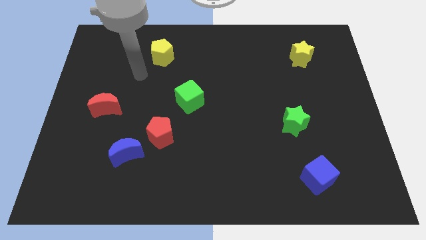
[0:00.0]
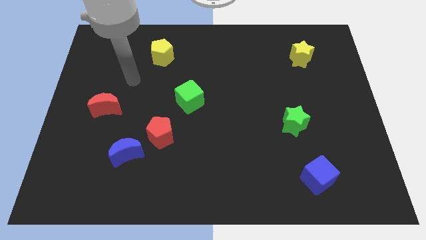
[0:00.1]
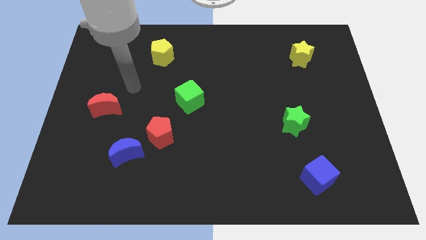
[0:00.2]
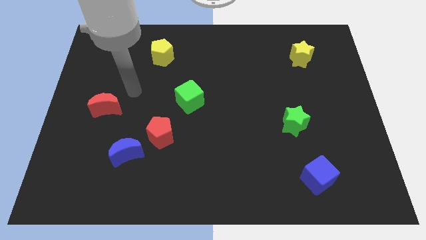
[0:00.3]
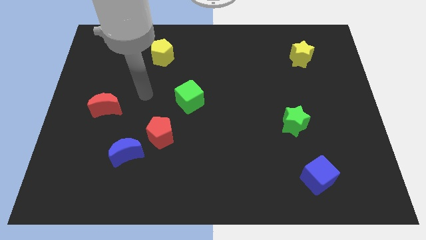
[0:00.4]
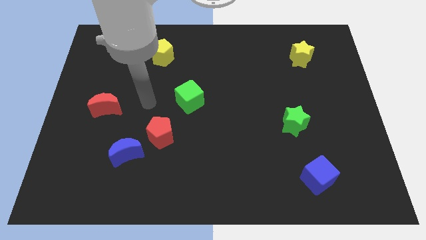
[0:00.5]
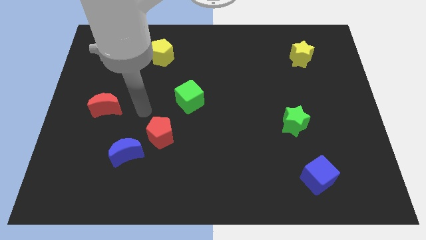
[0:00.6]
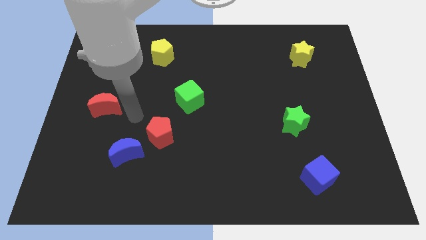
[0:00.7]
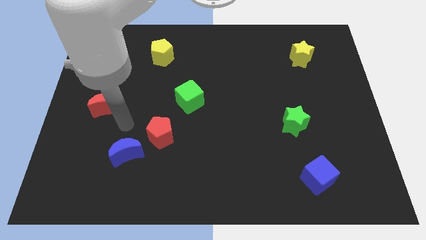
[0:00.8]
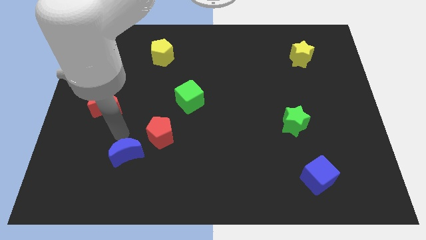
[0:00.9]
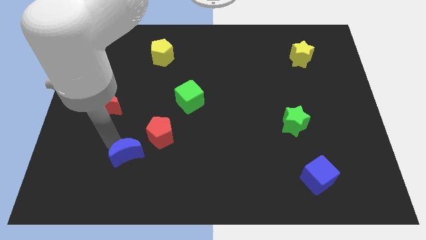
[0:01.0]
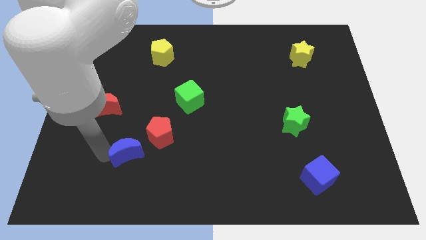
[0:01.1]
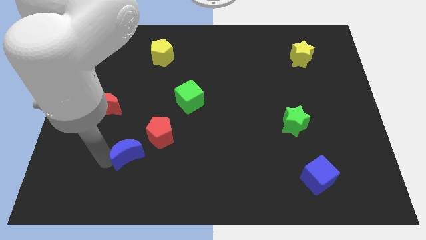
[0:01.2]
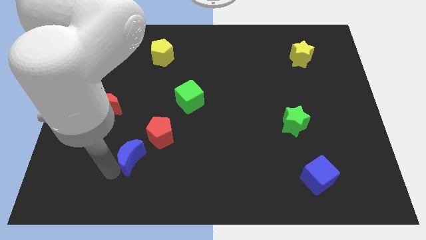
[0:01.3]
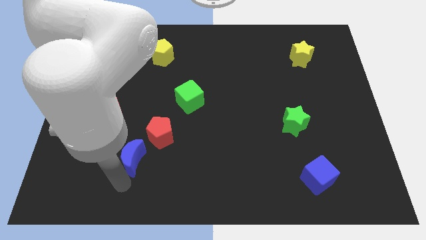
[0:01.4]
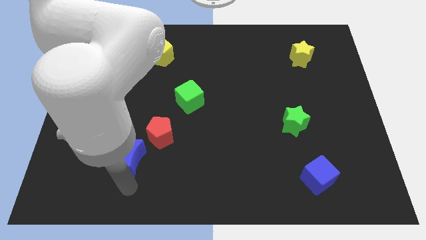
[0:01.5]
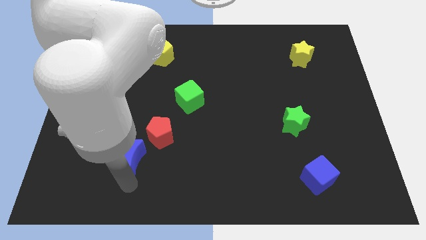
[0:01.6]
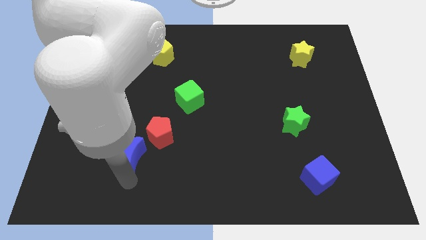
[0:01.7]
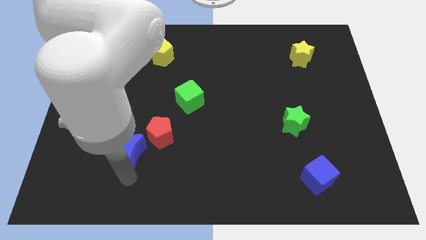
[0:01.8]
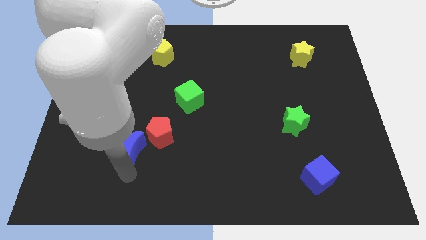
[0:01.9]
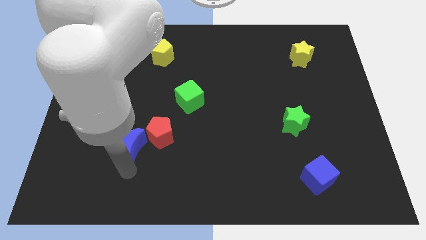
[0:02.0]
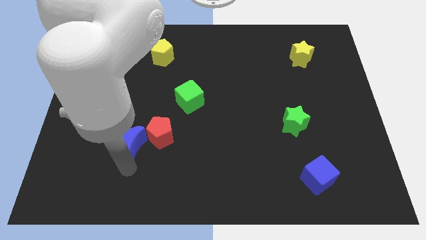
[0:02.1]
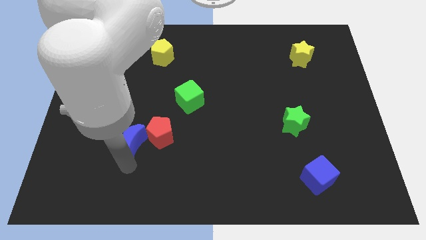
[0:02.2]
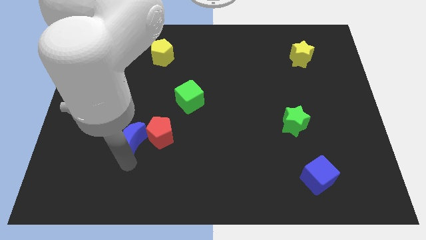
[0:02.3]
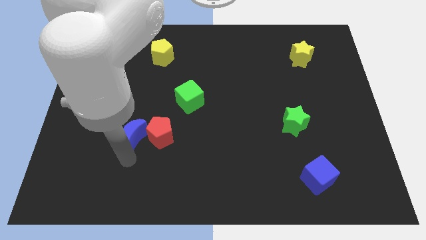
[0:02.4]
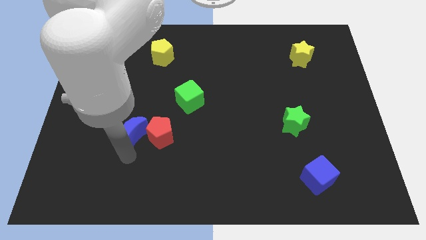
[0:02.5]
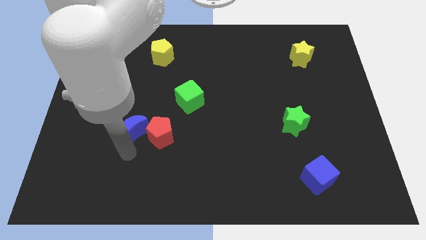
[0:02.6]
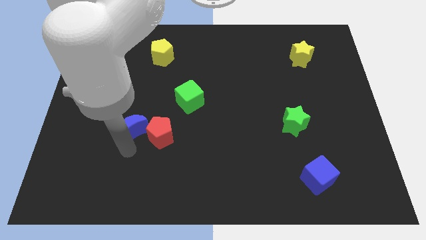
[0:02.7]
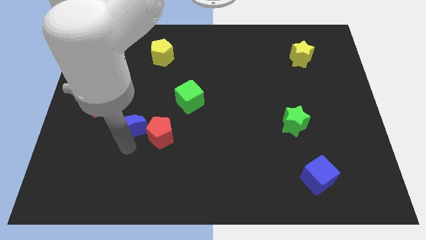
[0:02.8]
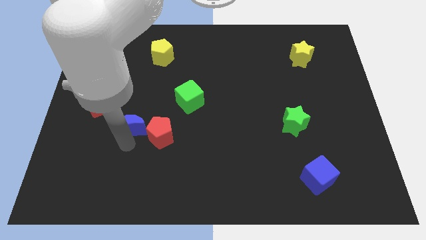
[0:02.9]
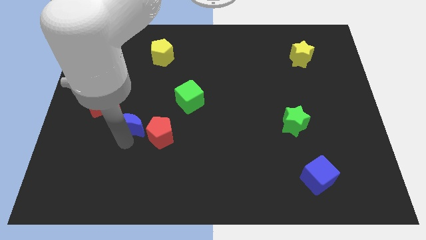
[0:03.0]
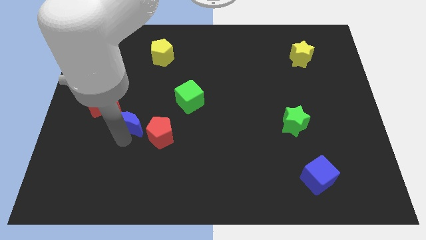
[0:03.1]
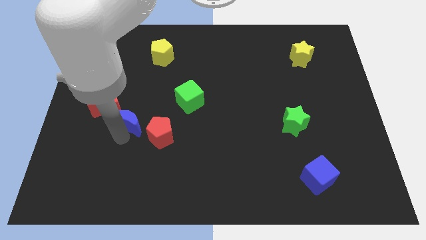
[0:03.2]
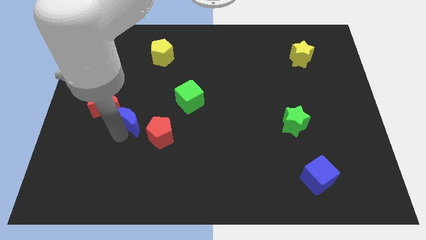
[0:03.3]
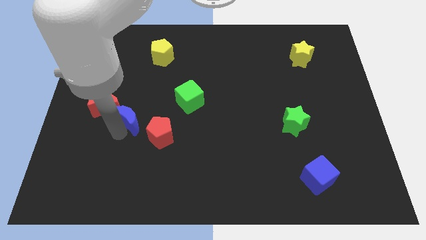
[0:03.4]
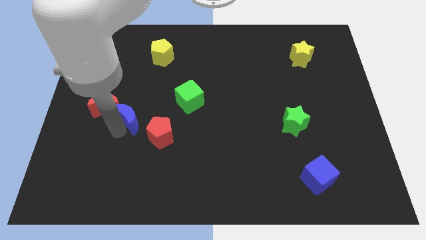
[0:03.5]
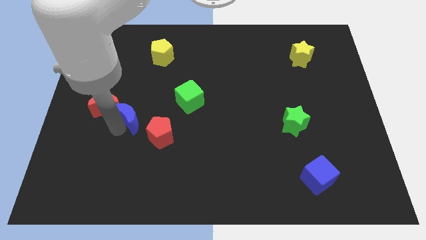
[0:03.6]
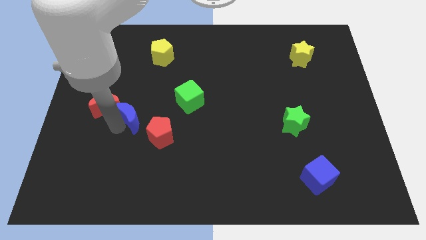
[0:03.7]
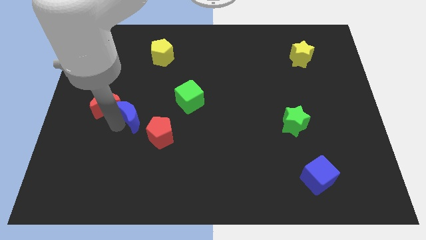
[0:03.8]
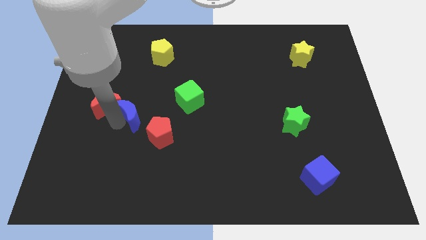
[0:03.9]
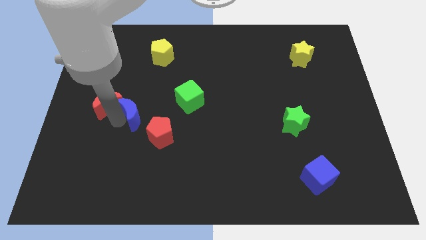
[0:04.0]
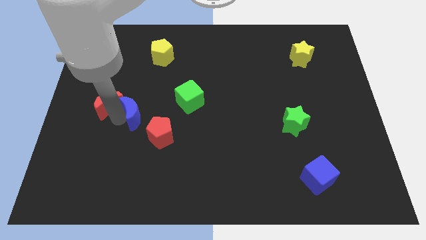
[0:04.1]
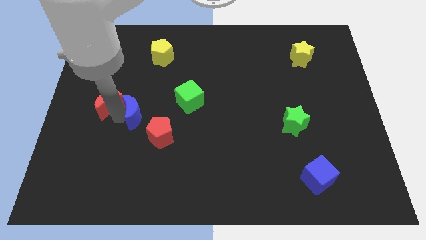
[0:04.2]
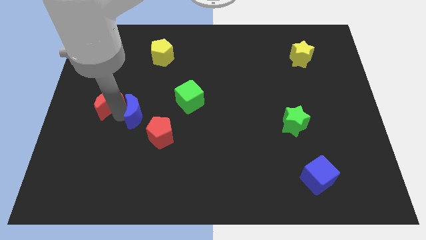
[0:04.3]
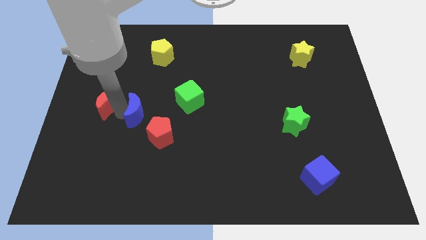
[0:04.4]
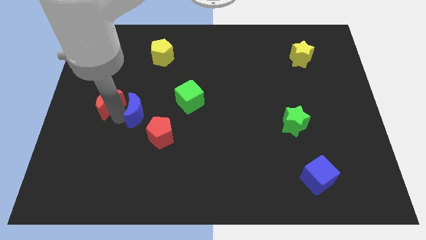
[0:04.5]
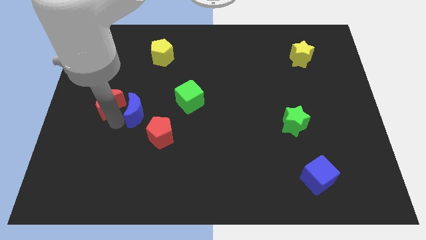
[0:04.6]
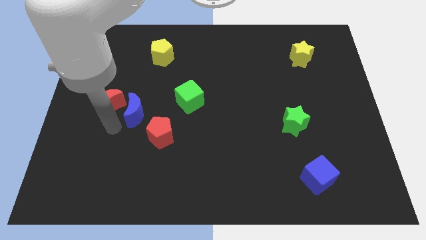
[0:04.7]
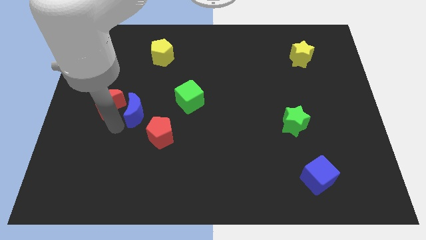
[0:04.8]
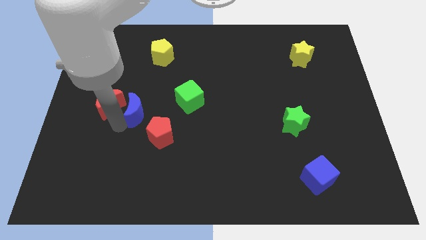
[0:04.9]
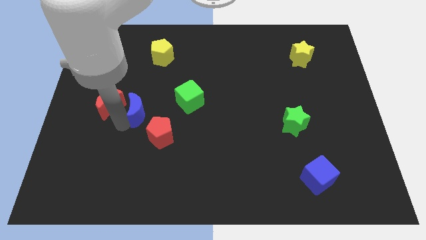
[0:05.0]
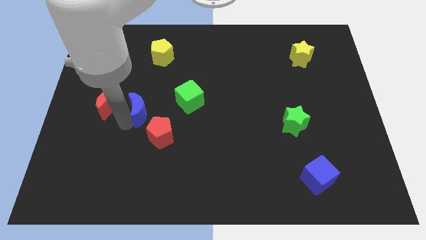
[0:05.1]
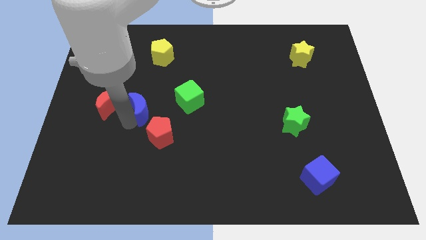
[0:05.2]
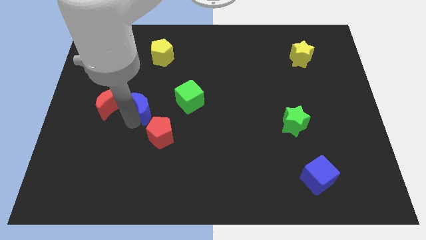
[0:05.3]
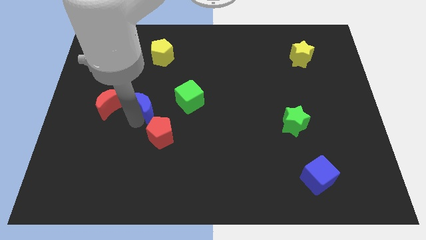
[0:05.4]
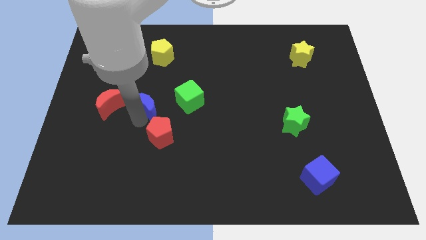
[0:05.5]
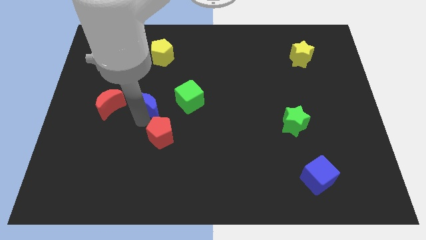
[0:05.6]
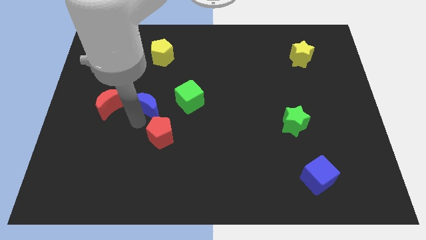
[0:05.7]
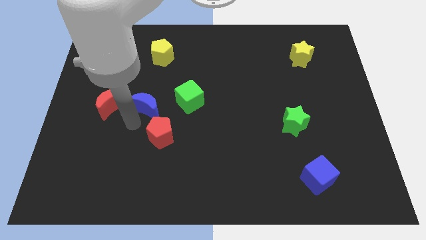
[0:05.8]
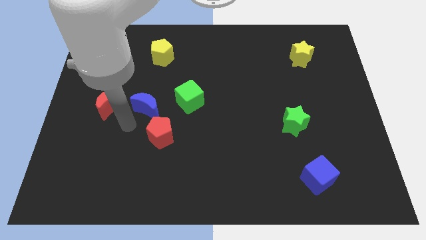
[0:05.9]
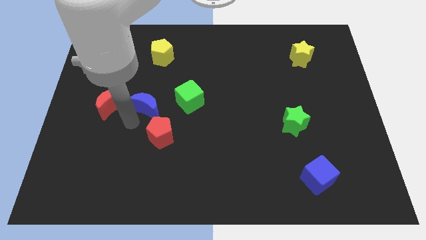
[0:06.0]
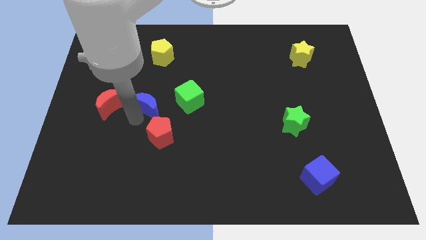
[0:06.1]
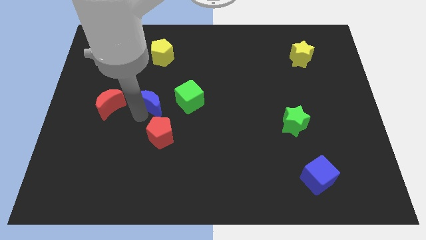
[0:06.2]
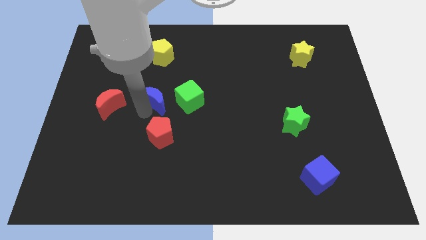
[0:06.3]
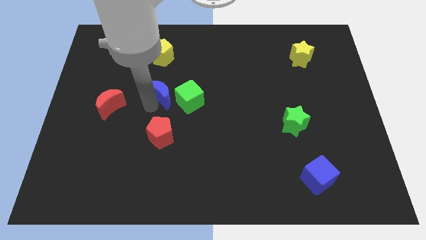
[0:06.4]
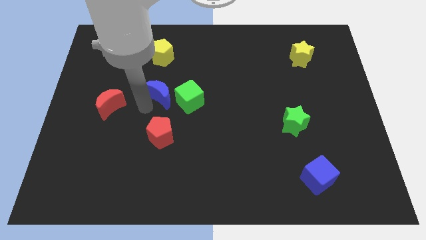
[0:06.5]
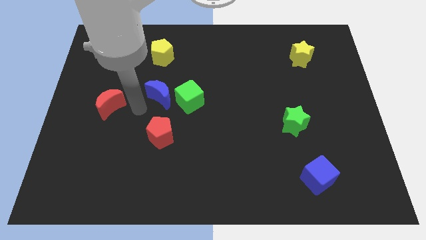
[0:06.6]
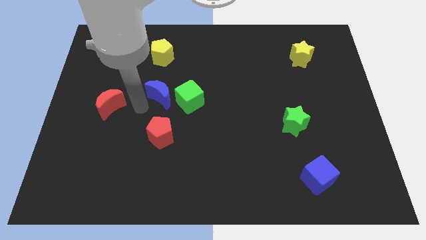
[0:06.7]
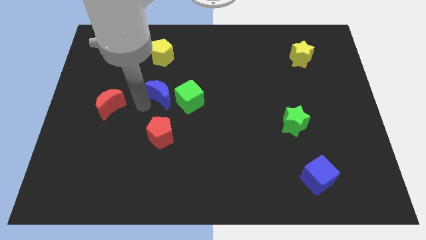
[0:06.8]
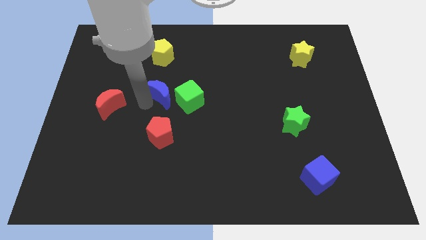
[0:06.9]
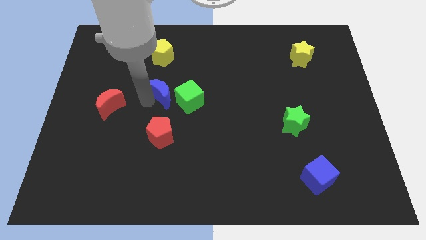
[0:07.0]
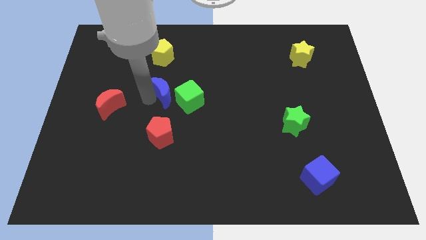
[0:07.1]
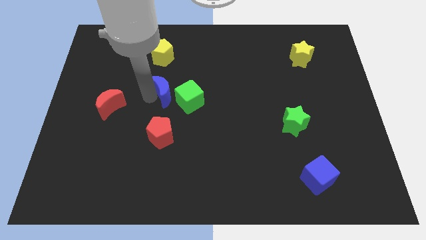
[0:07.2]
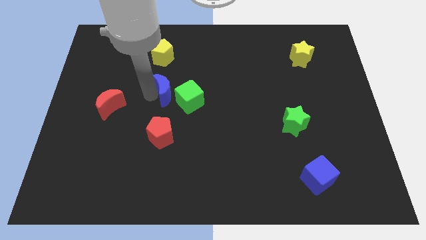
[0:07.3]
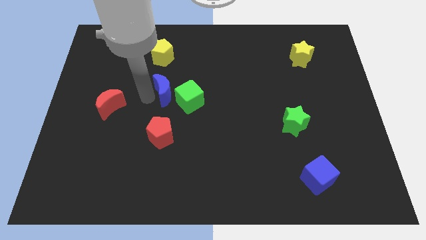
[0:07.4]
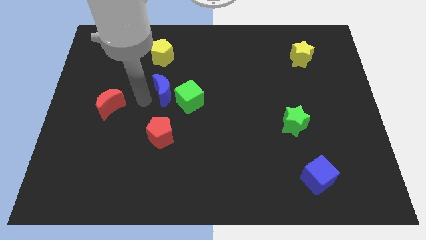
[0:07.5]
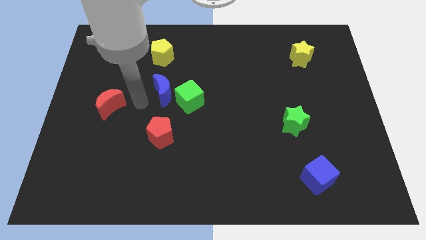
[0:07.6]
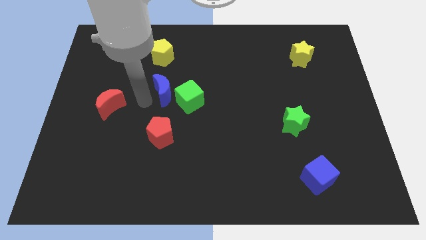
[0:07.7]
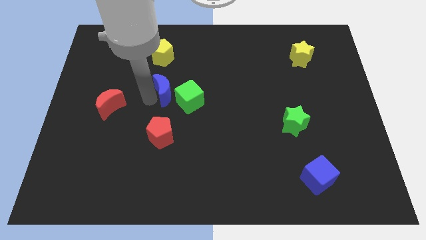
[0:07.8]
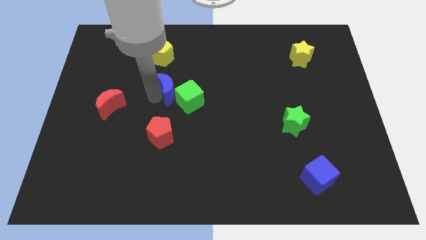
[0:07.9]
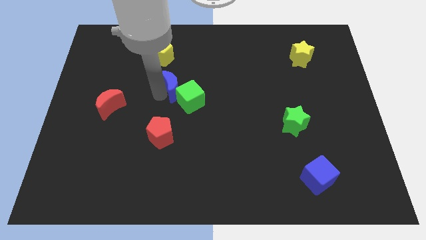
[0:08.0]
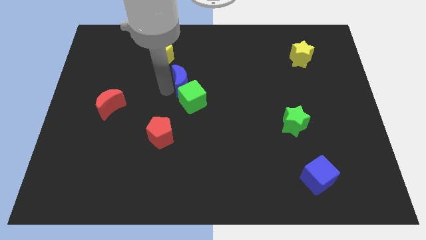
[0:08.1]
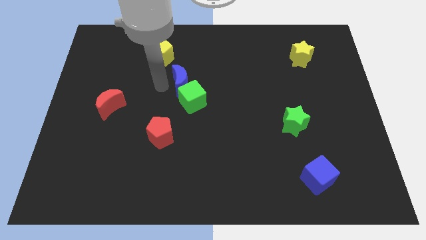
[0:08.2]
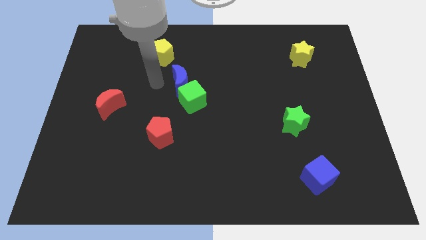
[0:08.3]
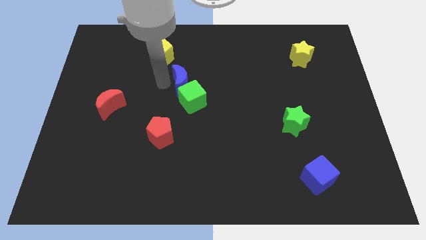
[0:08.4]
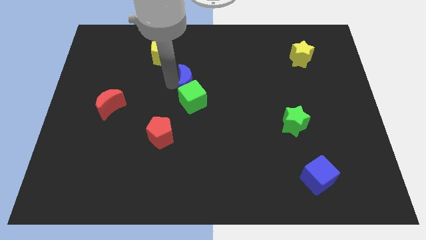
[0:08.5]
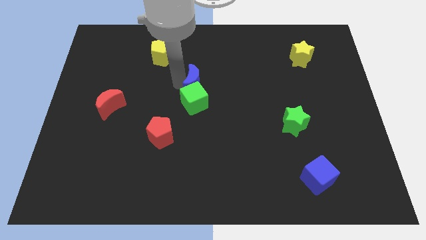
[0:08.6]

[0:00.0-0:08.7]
slide the blue moon diagonally up and to the right of the green cube
